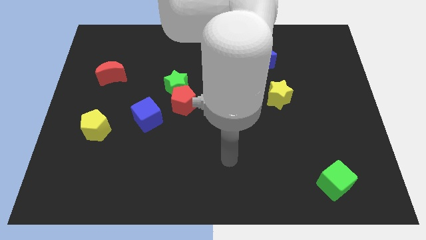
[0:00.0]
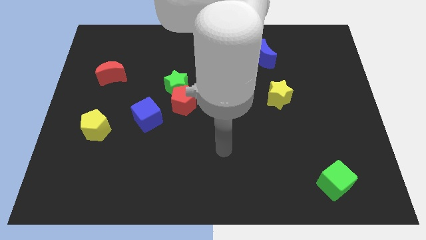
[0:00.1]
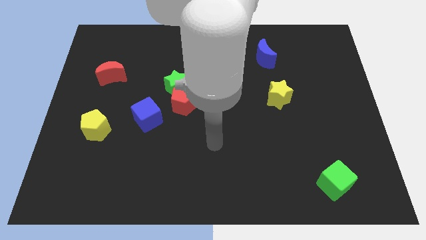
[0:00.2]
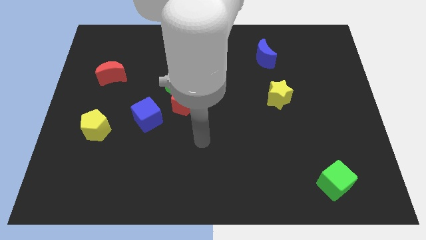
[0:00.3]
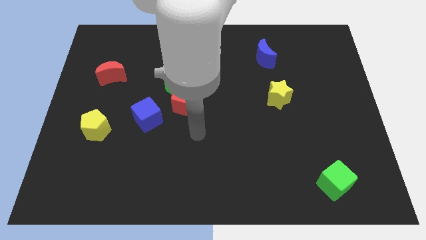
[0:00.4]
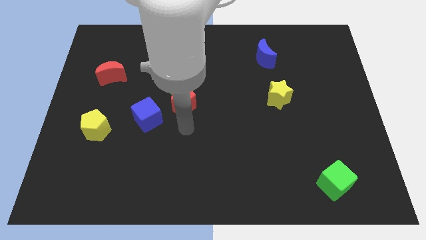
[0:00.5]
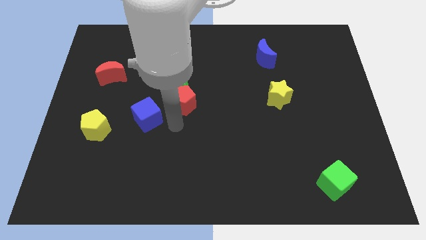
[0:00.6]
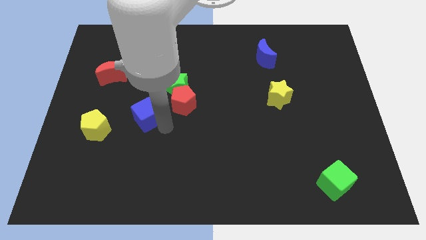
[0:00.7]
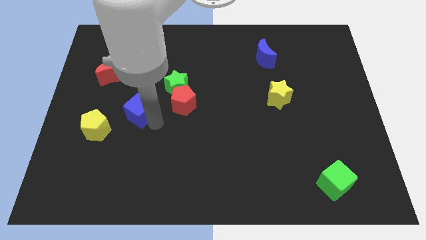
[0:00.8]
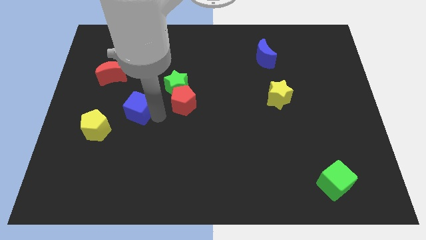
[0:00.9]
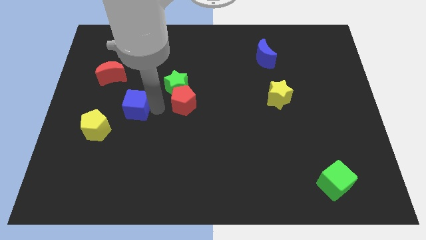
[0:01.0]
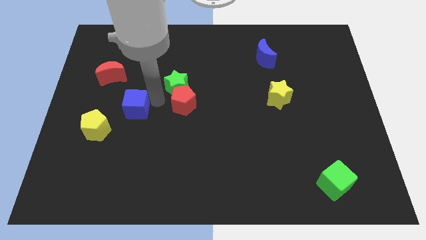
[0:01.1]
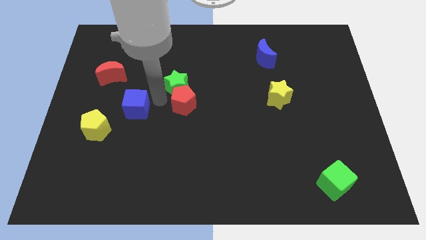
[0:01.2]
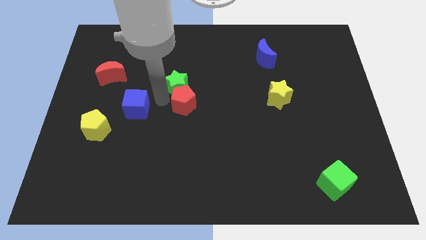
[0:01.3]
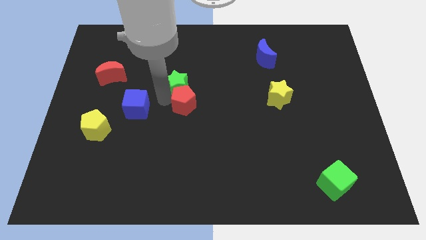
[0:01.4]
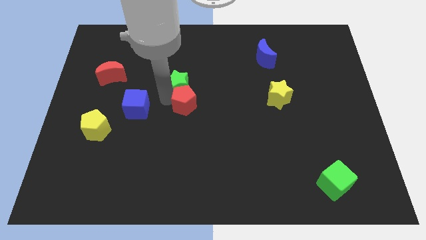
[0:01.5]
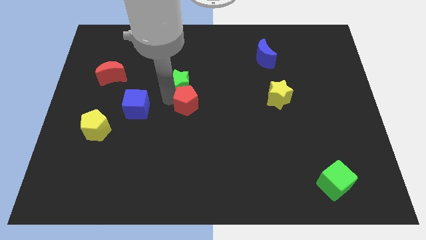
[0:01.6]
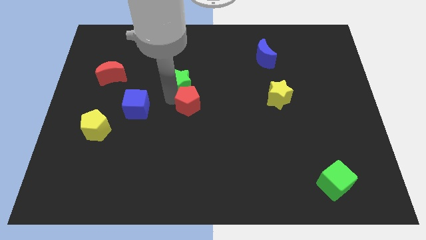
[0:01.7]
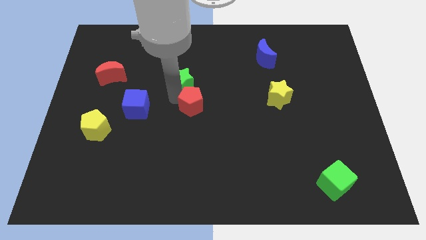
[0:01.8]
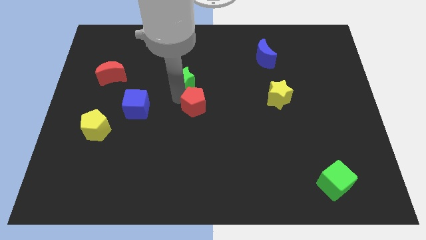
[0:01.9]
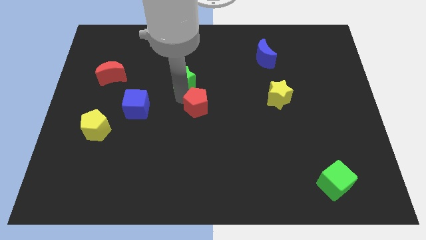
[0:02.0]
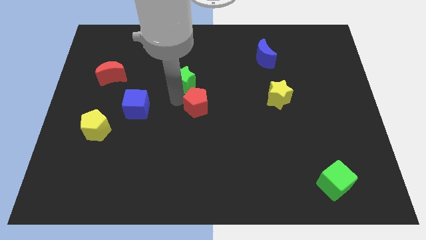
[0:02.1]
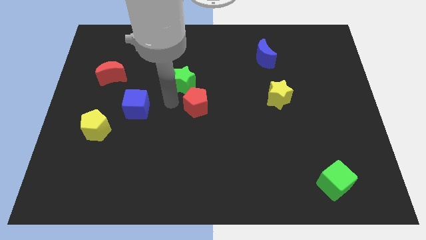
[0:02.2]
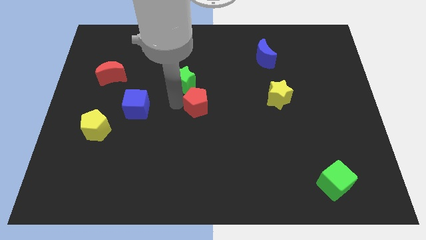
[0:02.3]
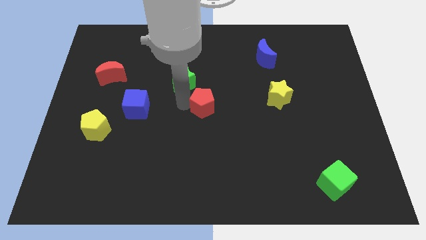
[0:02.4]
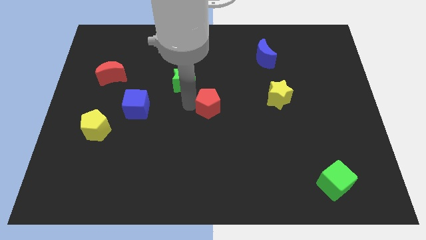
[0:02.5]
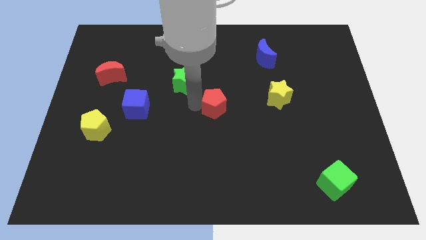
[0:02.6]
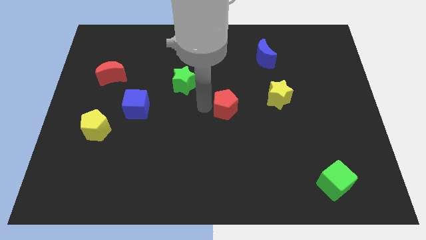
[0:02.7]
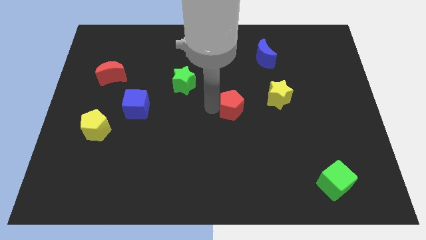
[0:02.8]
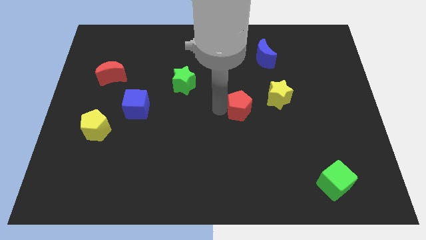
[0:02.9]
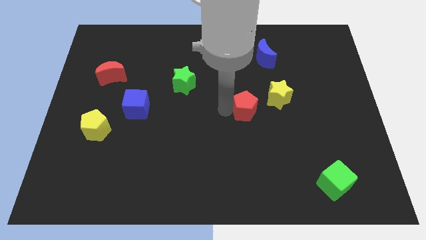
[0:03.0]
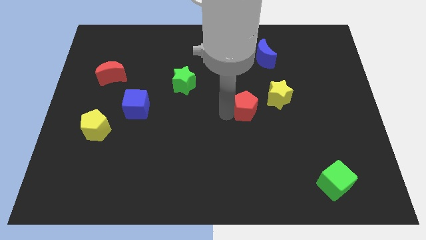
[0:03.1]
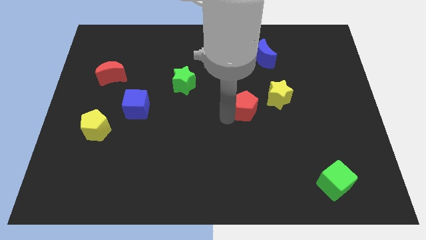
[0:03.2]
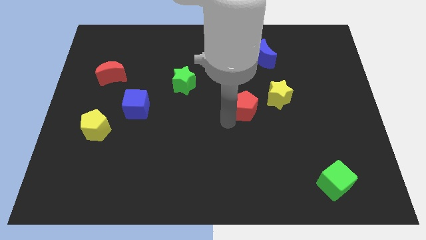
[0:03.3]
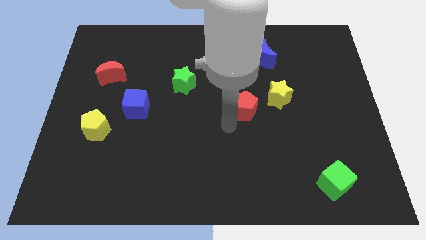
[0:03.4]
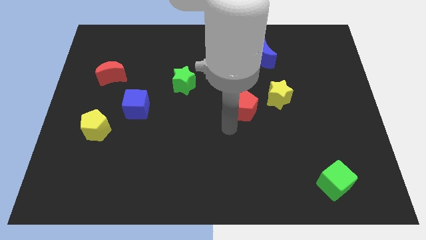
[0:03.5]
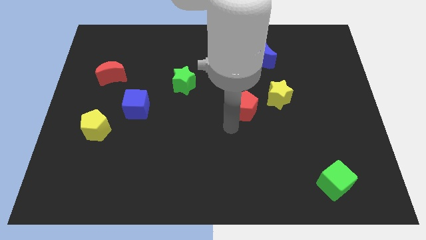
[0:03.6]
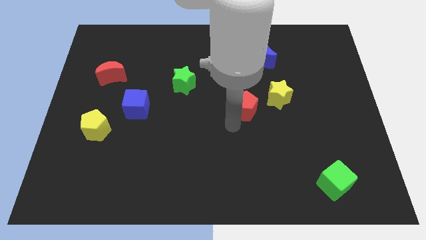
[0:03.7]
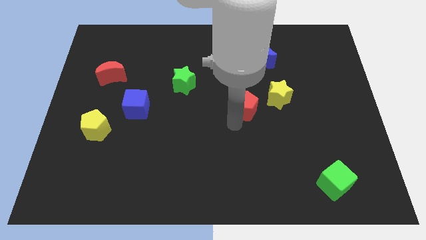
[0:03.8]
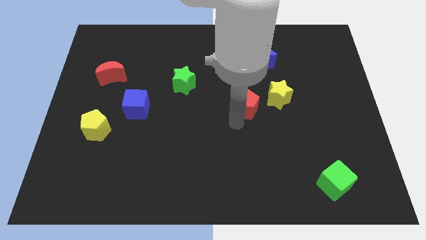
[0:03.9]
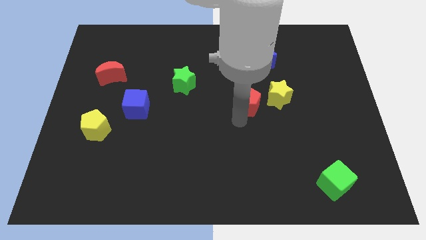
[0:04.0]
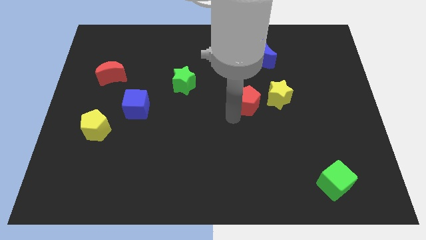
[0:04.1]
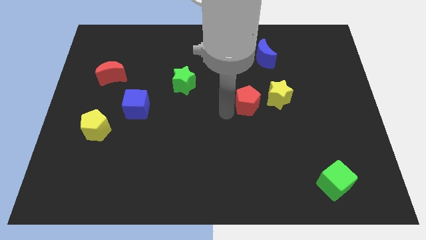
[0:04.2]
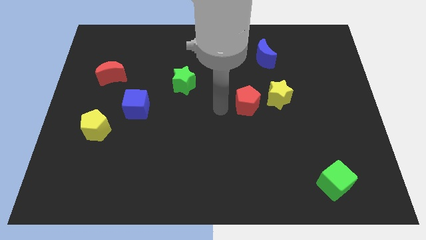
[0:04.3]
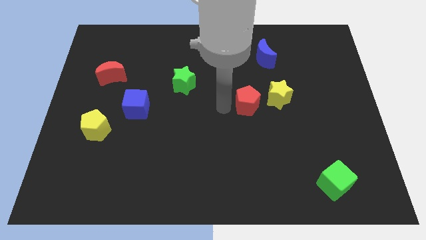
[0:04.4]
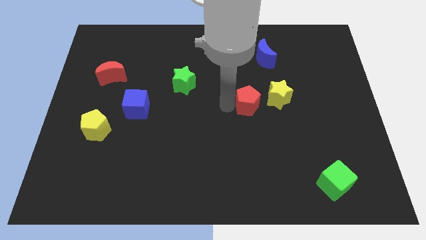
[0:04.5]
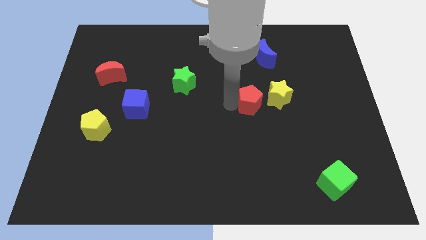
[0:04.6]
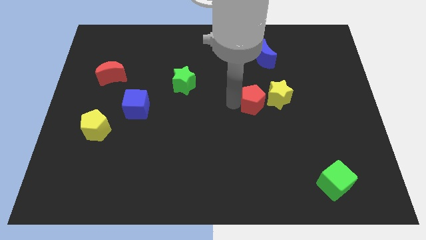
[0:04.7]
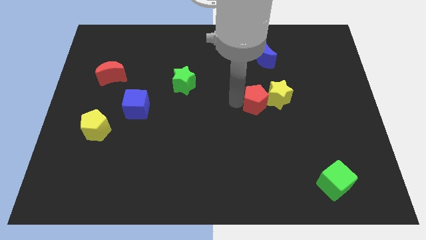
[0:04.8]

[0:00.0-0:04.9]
put the red pentagon to the yellow star

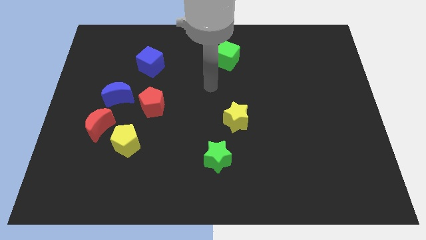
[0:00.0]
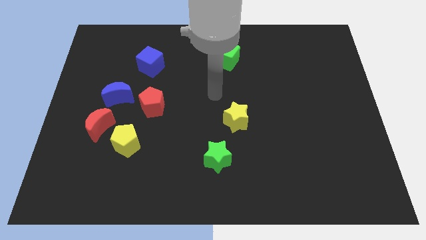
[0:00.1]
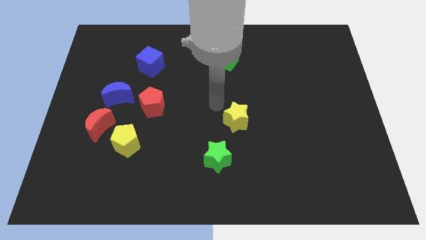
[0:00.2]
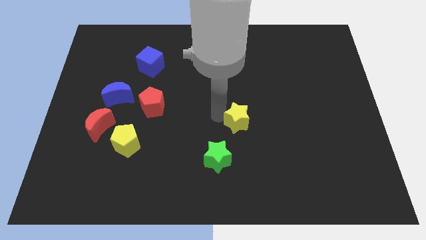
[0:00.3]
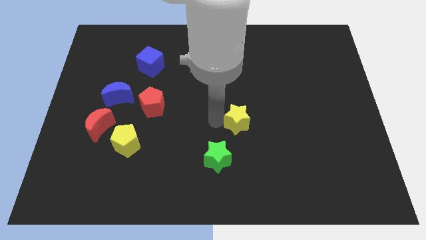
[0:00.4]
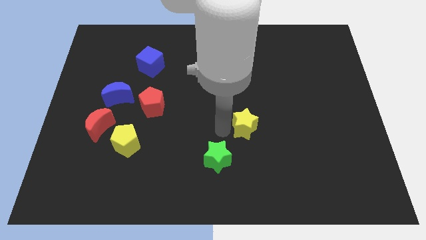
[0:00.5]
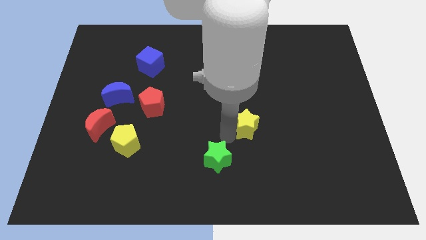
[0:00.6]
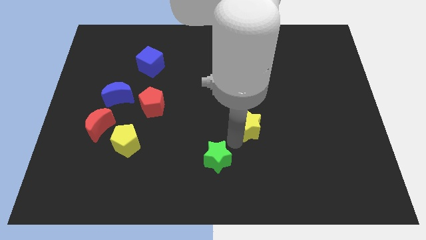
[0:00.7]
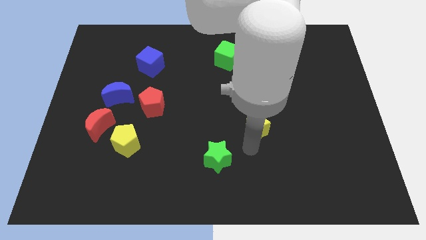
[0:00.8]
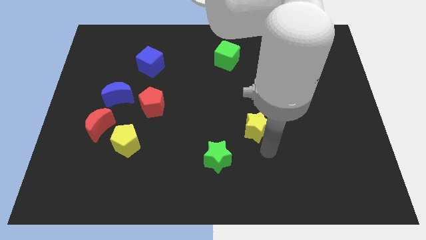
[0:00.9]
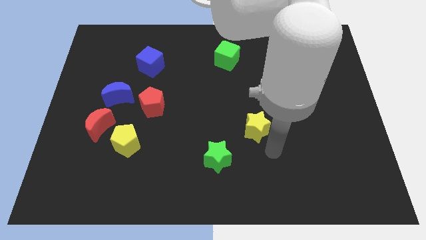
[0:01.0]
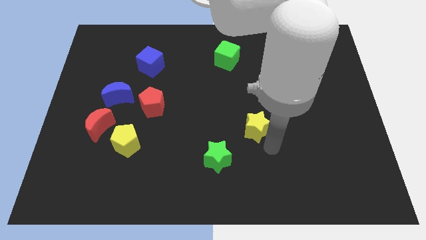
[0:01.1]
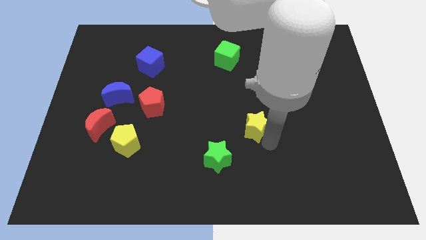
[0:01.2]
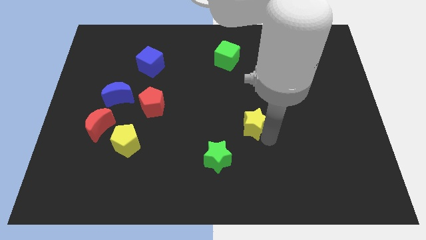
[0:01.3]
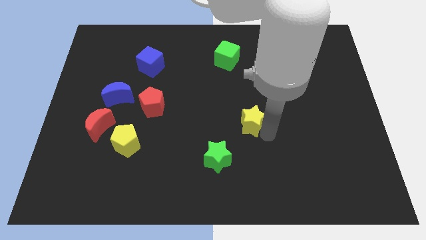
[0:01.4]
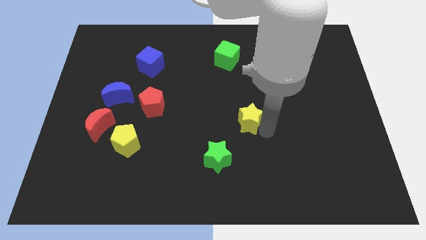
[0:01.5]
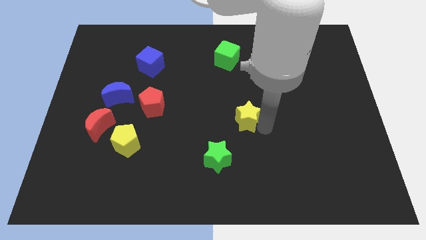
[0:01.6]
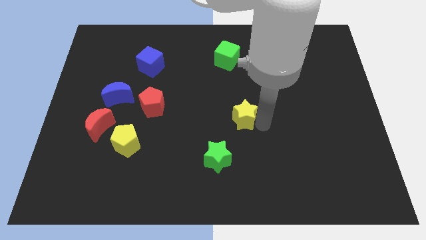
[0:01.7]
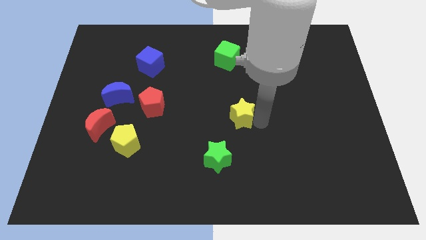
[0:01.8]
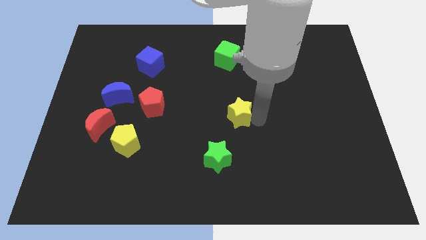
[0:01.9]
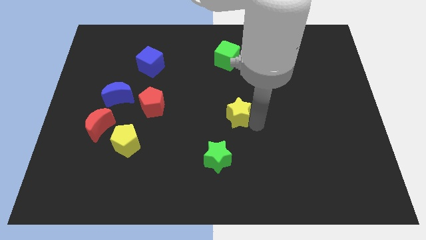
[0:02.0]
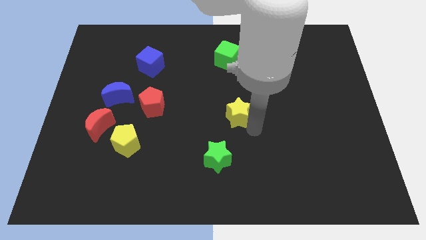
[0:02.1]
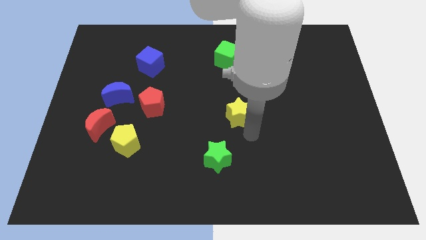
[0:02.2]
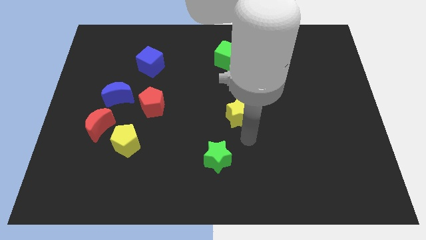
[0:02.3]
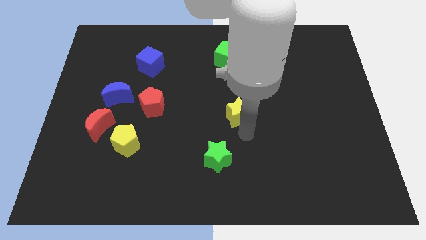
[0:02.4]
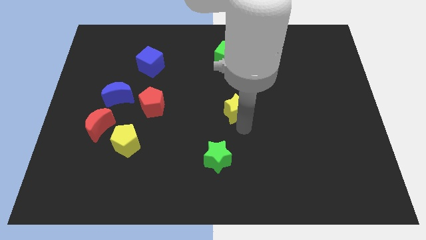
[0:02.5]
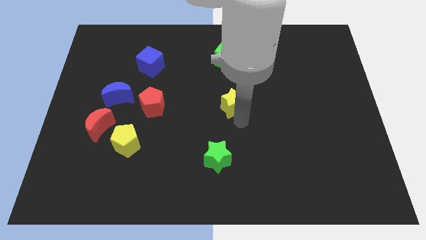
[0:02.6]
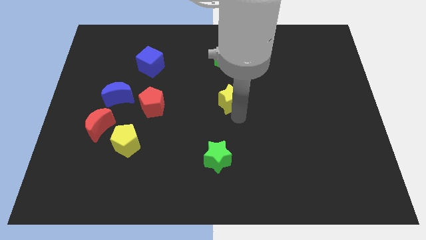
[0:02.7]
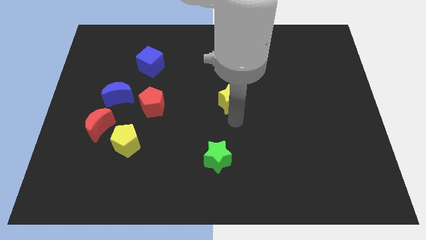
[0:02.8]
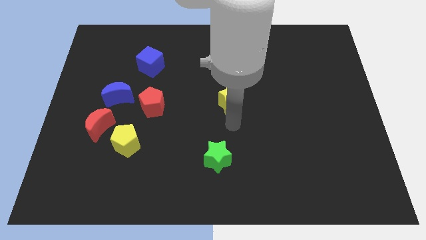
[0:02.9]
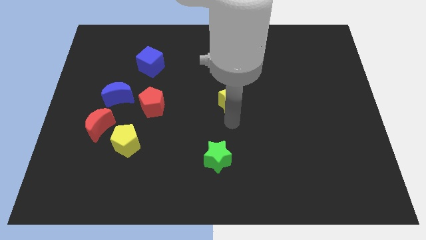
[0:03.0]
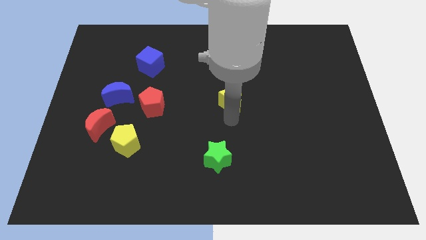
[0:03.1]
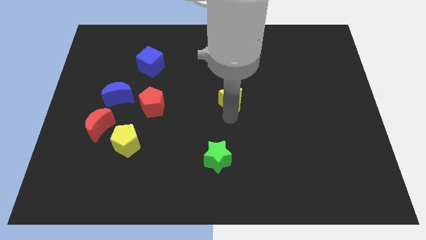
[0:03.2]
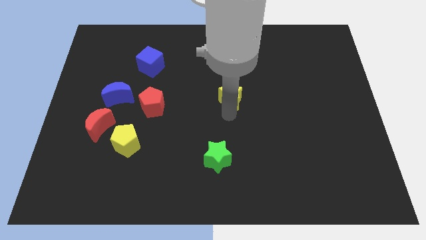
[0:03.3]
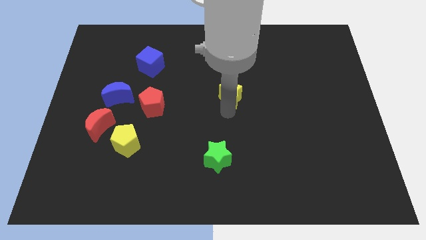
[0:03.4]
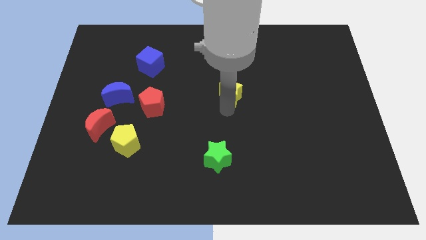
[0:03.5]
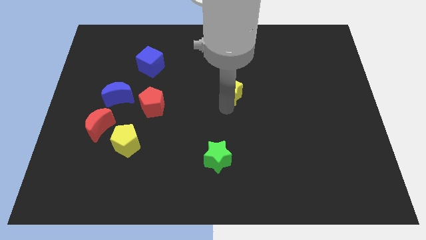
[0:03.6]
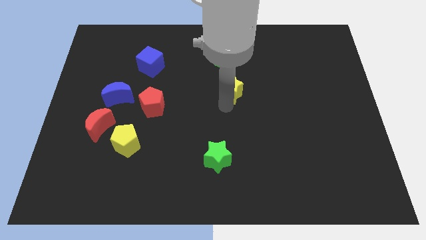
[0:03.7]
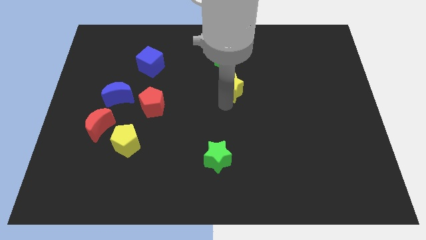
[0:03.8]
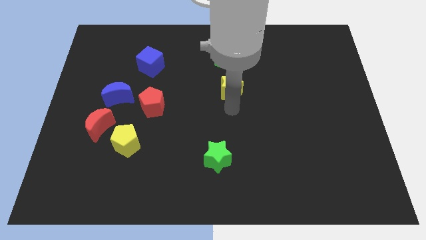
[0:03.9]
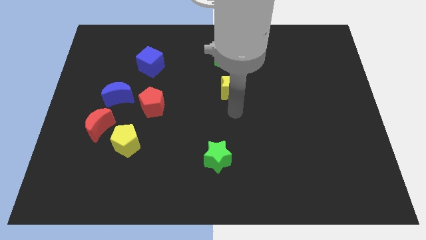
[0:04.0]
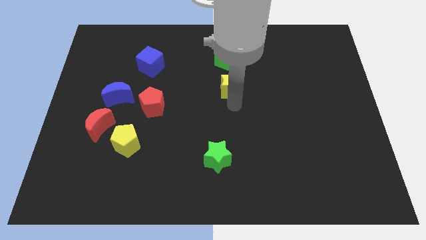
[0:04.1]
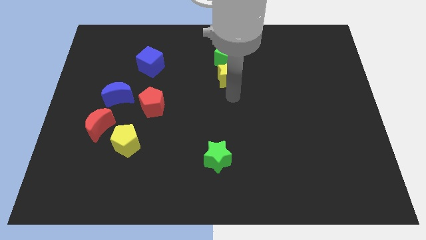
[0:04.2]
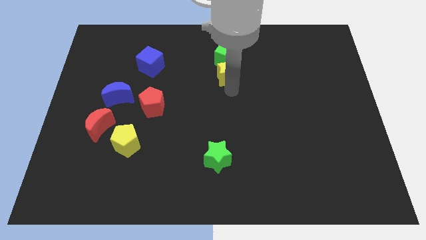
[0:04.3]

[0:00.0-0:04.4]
slide the yellow star next to the green cube
